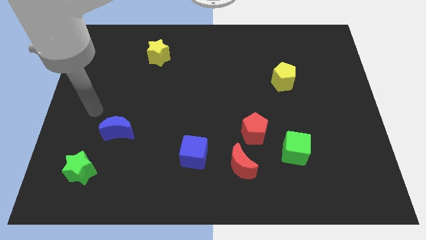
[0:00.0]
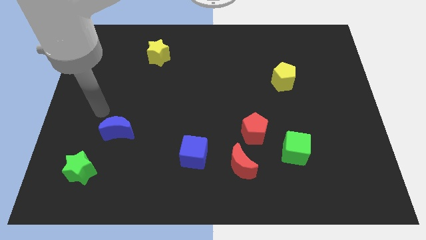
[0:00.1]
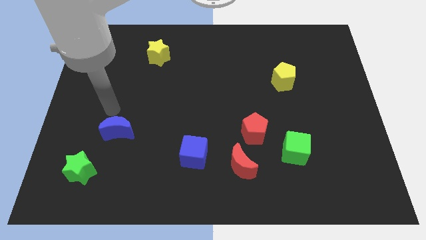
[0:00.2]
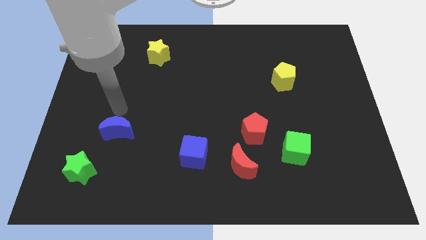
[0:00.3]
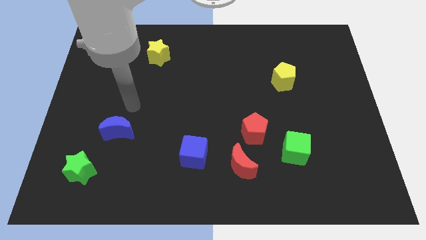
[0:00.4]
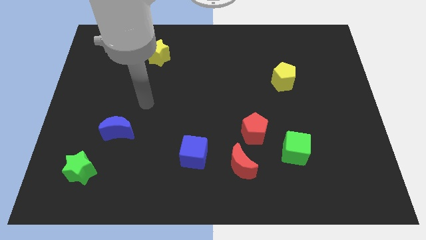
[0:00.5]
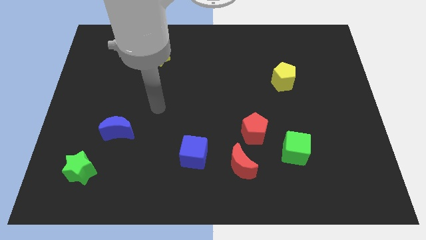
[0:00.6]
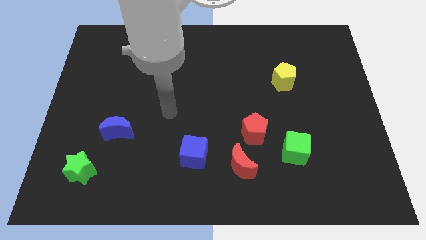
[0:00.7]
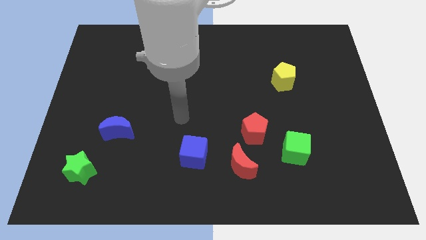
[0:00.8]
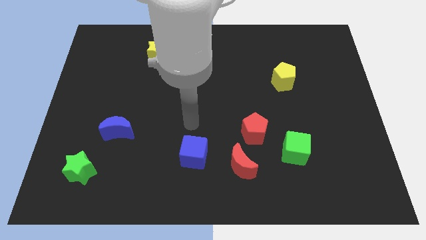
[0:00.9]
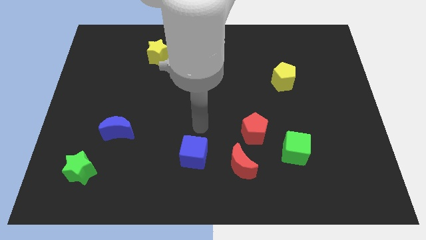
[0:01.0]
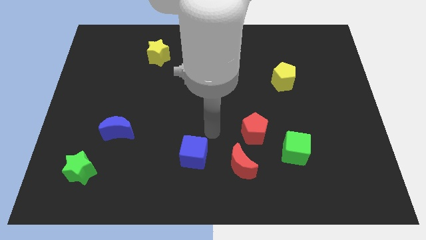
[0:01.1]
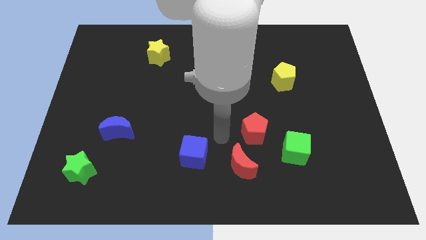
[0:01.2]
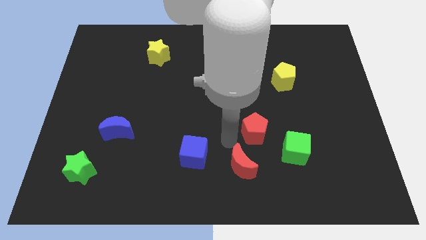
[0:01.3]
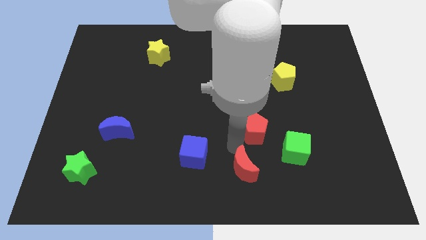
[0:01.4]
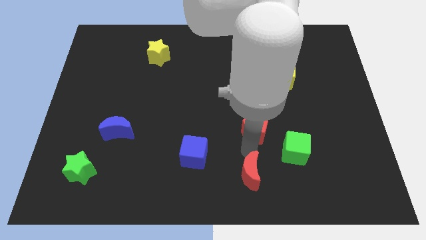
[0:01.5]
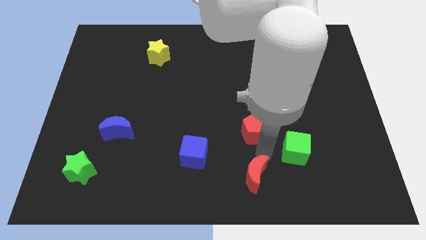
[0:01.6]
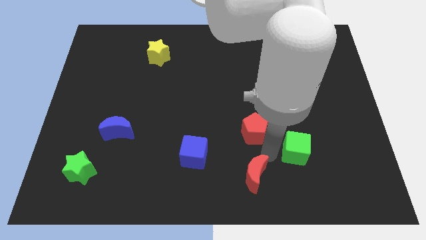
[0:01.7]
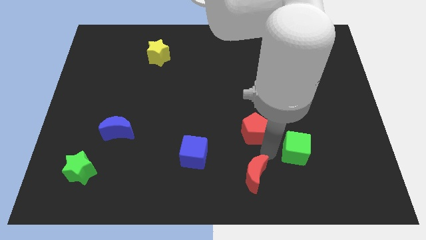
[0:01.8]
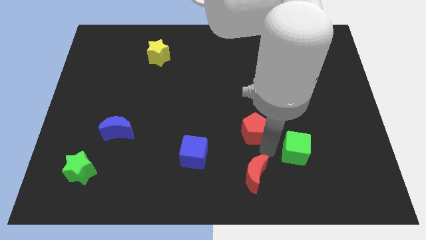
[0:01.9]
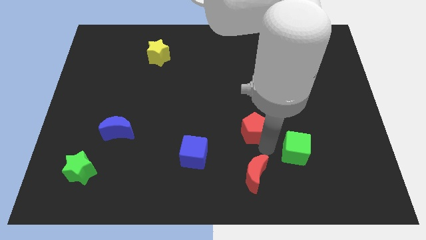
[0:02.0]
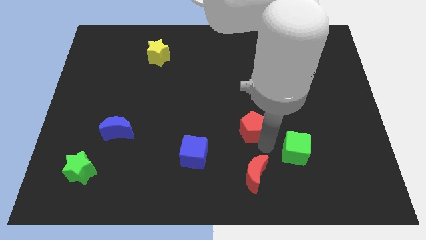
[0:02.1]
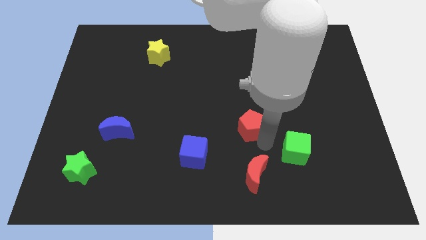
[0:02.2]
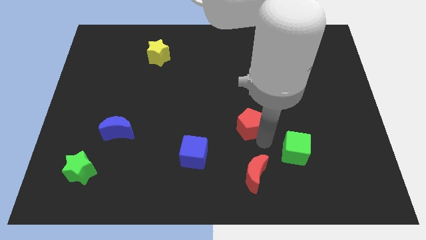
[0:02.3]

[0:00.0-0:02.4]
separate the red pentagon from the red moon and green cube

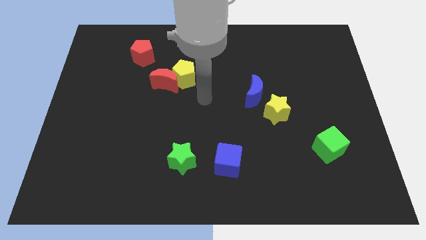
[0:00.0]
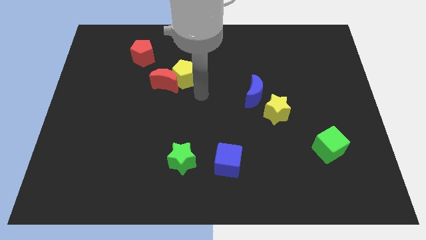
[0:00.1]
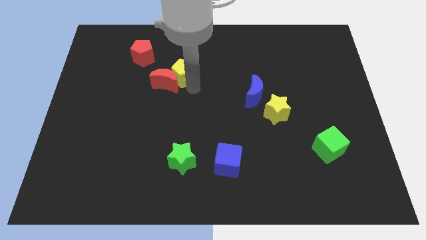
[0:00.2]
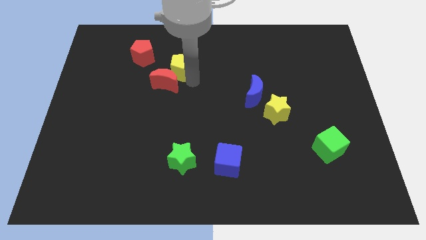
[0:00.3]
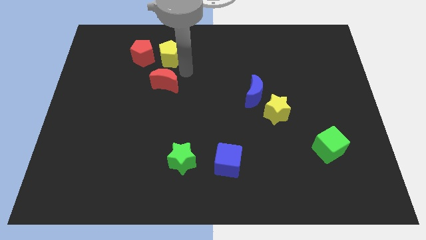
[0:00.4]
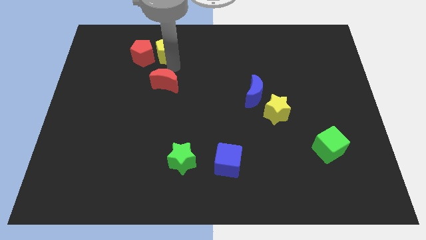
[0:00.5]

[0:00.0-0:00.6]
pull the red moon apart from the yellow pentagon

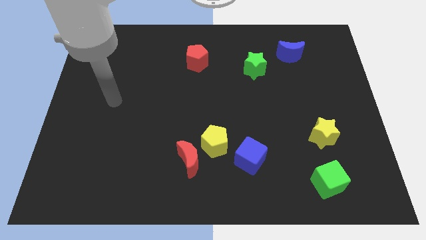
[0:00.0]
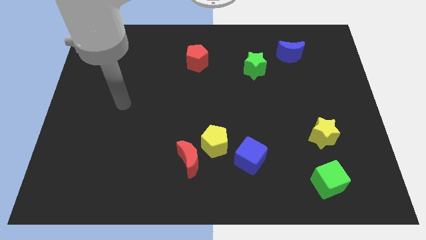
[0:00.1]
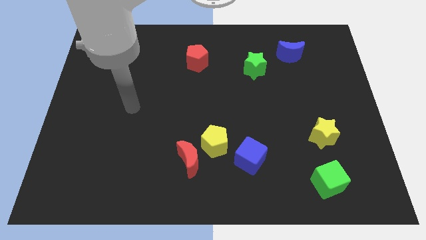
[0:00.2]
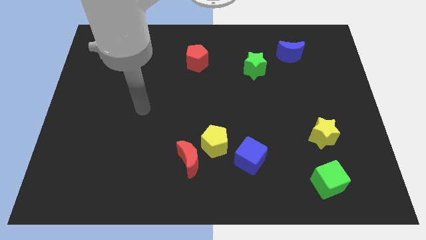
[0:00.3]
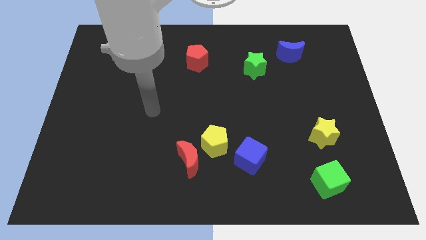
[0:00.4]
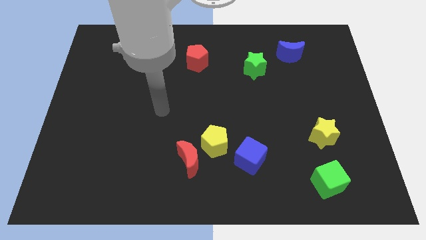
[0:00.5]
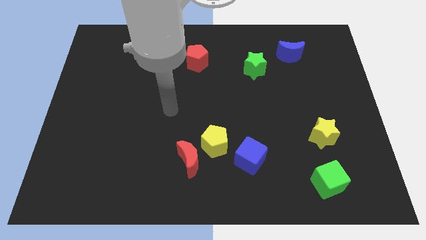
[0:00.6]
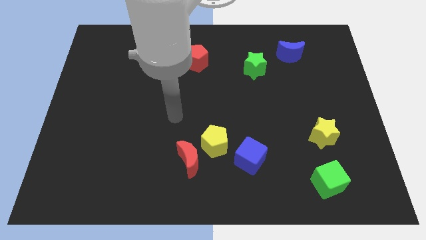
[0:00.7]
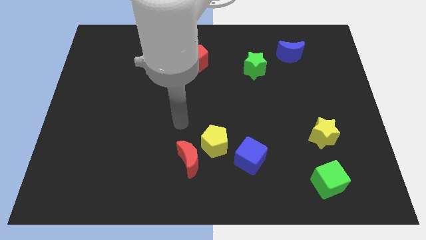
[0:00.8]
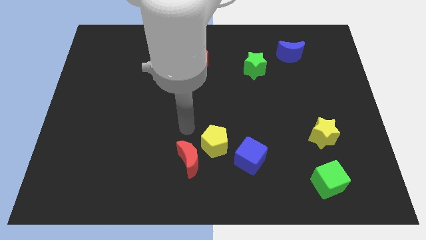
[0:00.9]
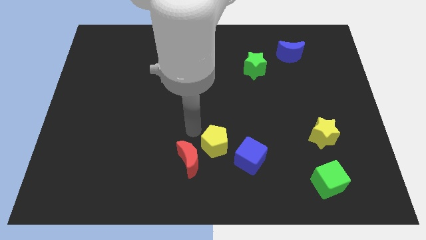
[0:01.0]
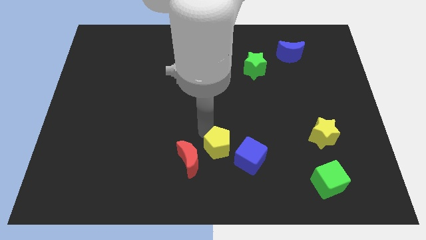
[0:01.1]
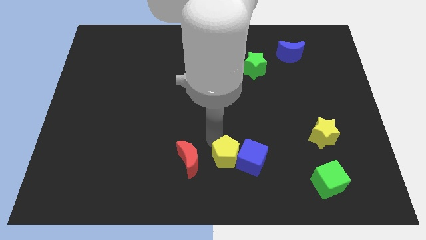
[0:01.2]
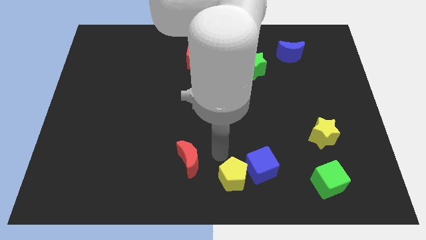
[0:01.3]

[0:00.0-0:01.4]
separate the red moon from the yellow pentagon

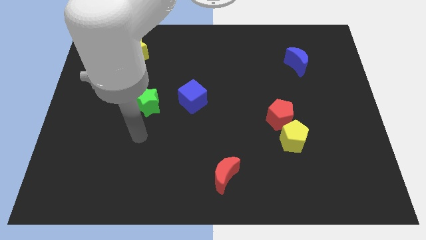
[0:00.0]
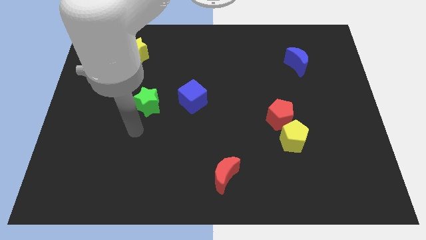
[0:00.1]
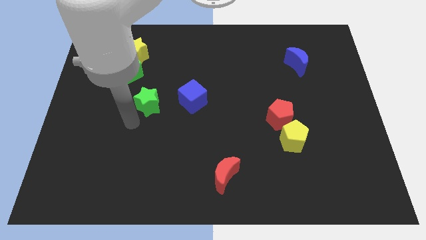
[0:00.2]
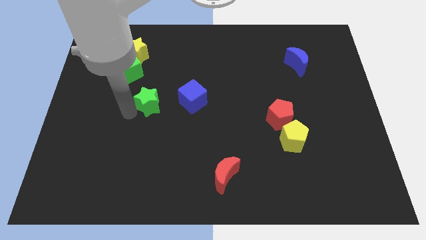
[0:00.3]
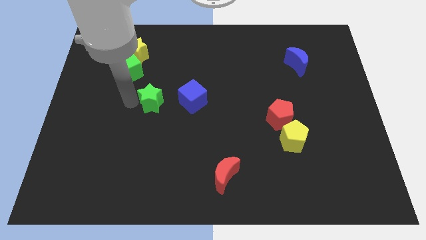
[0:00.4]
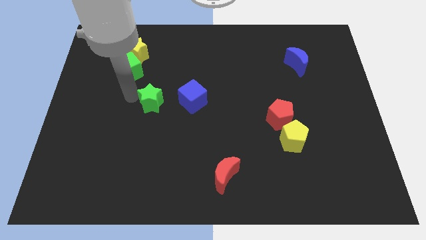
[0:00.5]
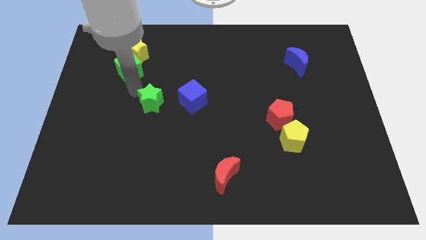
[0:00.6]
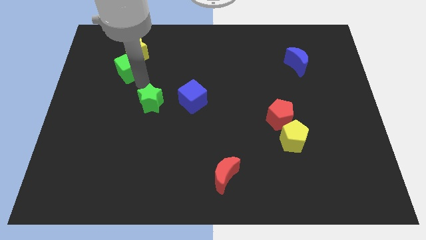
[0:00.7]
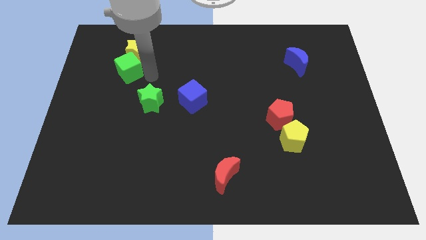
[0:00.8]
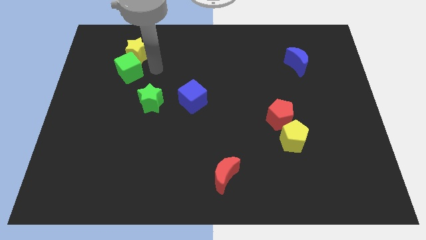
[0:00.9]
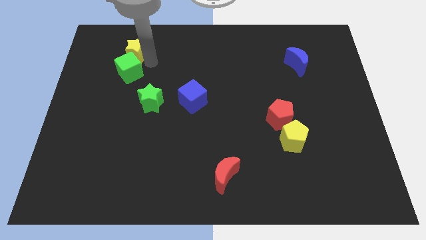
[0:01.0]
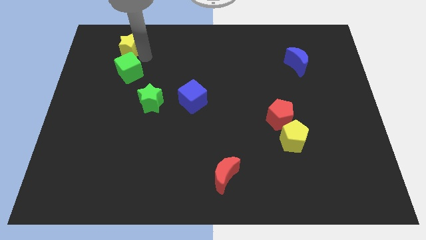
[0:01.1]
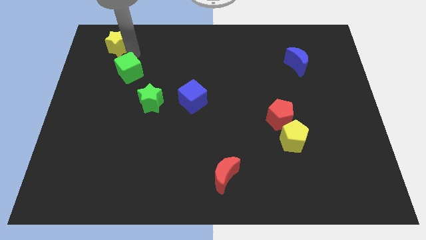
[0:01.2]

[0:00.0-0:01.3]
separate the green cube from the yellow star

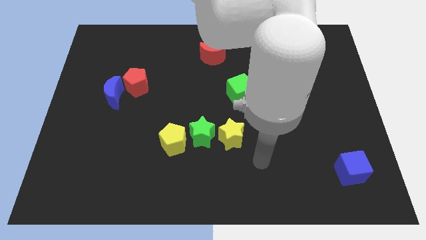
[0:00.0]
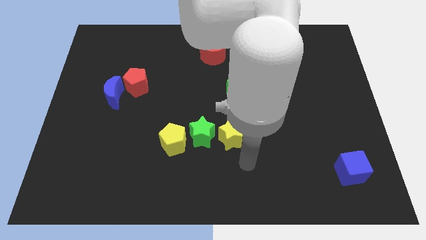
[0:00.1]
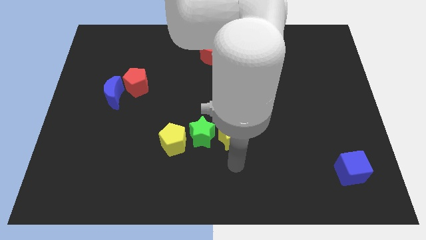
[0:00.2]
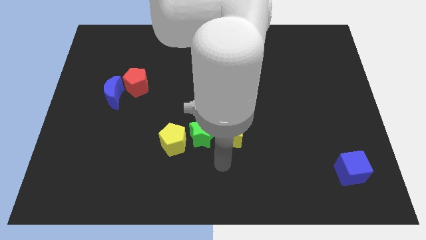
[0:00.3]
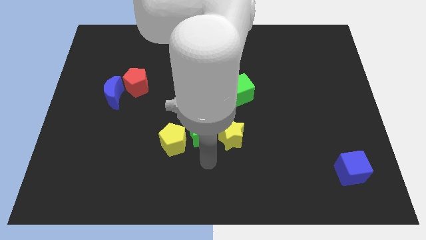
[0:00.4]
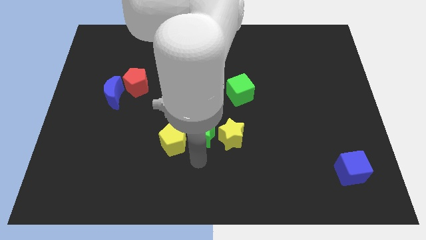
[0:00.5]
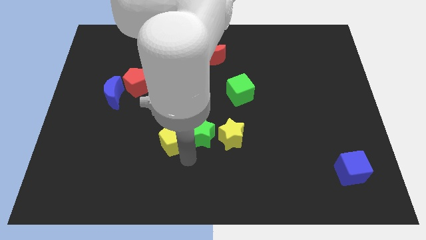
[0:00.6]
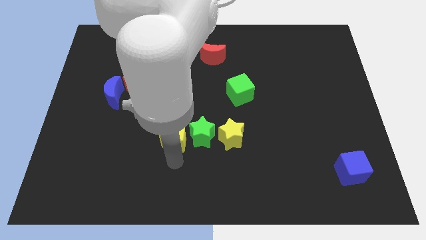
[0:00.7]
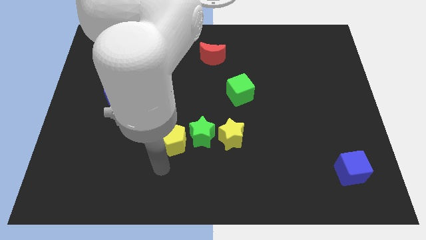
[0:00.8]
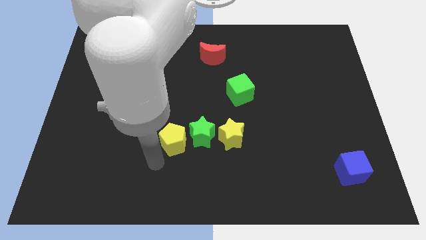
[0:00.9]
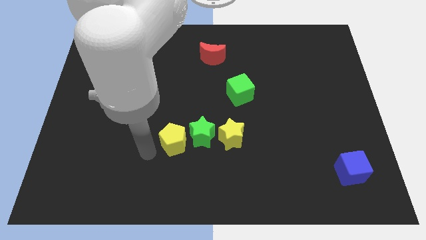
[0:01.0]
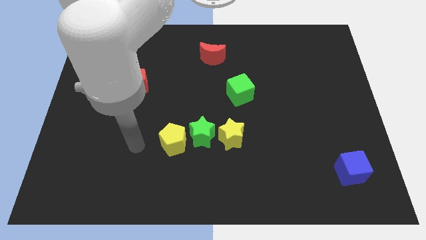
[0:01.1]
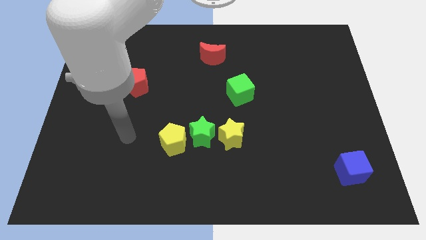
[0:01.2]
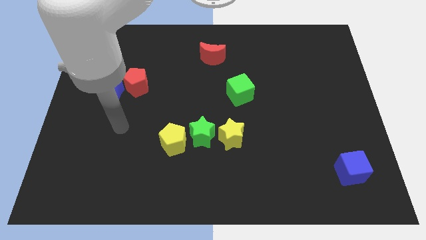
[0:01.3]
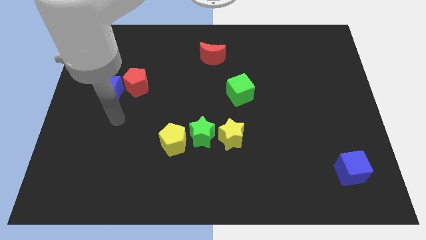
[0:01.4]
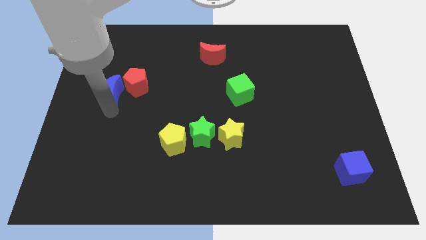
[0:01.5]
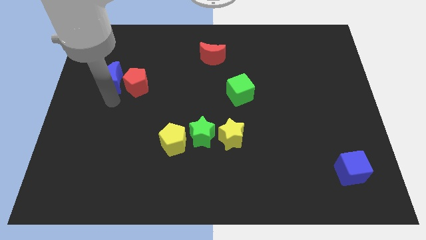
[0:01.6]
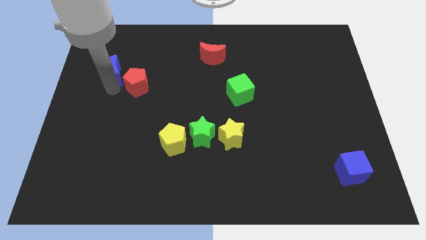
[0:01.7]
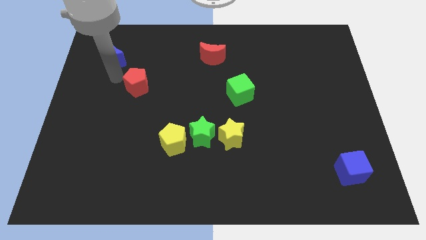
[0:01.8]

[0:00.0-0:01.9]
pull the red pentagon apart from the blue moon

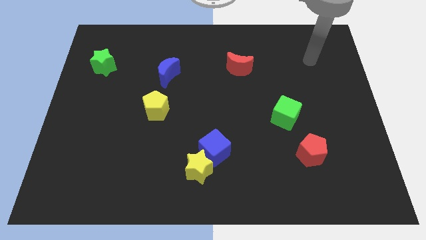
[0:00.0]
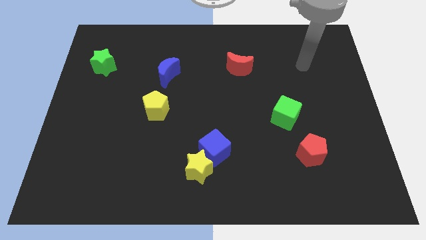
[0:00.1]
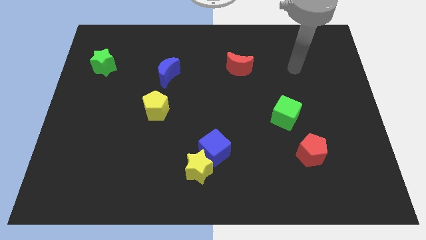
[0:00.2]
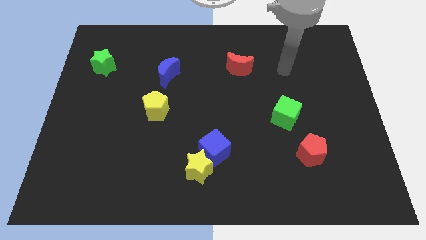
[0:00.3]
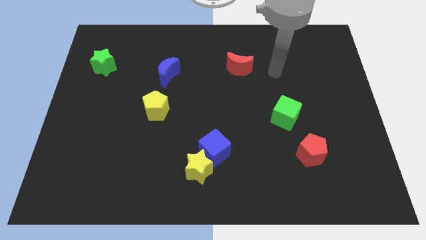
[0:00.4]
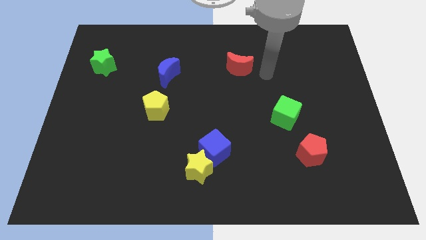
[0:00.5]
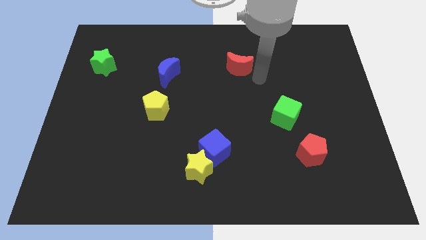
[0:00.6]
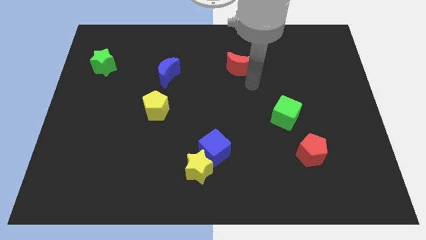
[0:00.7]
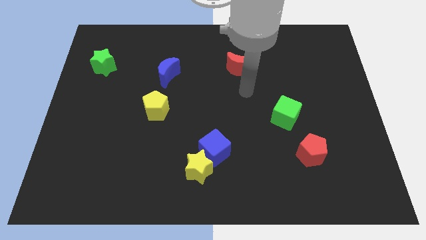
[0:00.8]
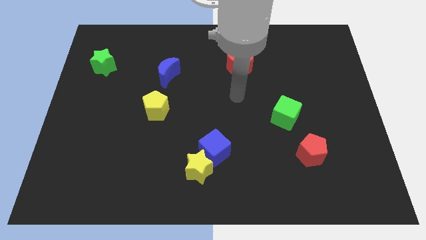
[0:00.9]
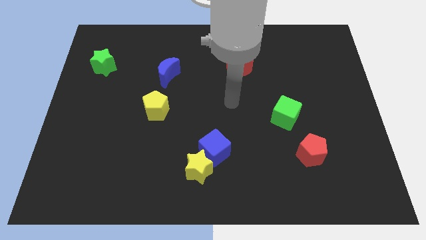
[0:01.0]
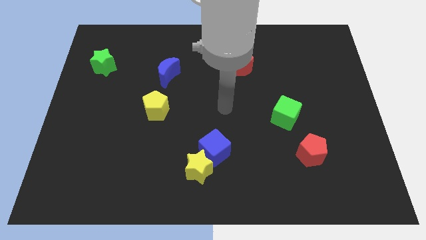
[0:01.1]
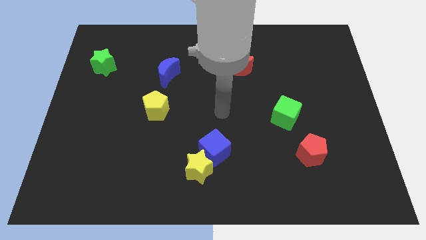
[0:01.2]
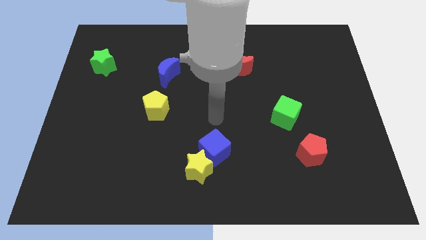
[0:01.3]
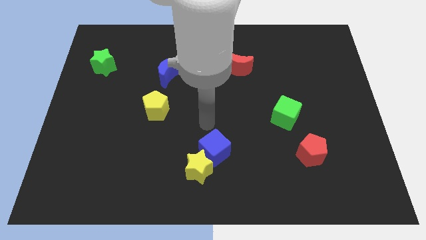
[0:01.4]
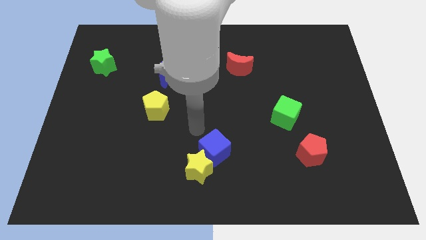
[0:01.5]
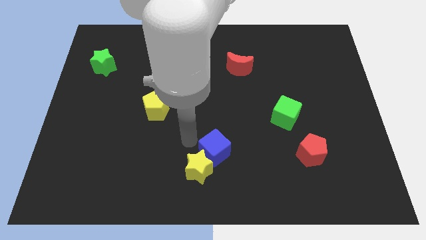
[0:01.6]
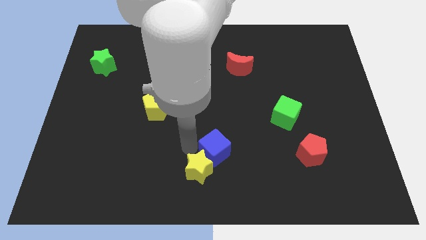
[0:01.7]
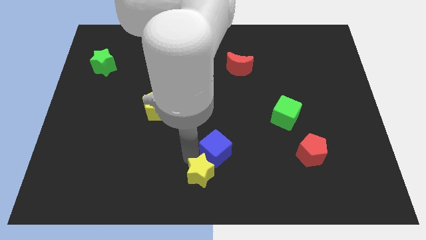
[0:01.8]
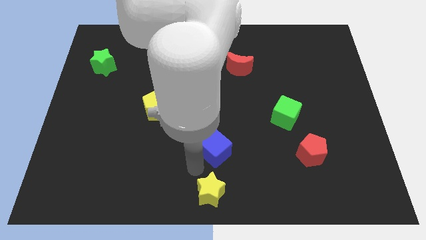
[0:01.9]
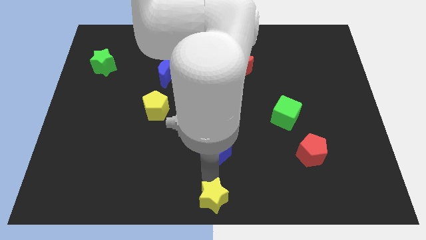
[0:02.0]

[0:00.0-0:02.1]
separate the blue cube from the yellow star
